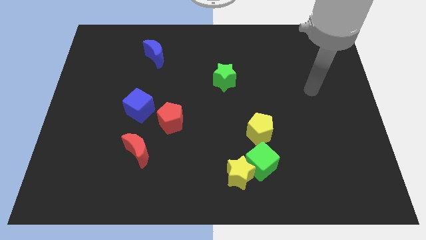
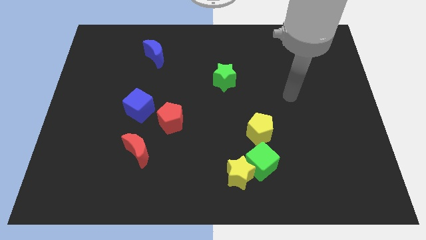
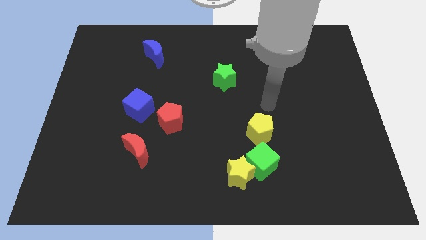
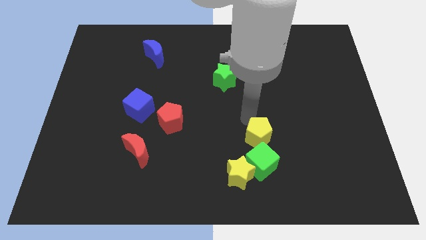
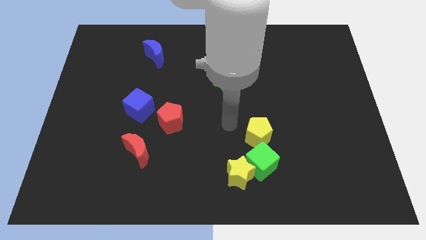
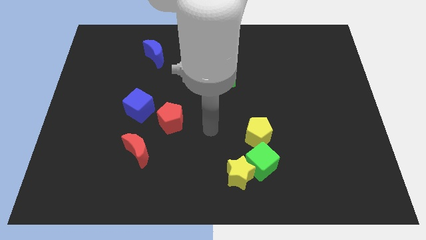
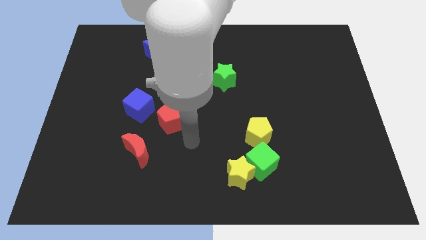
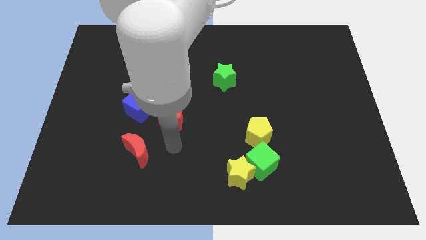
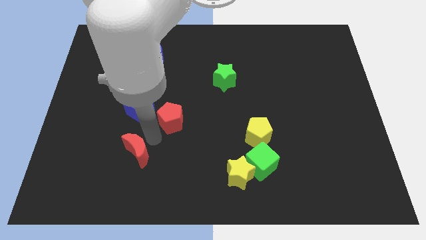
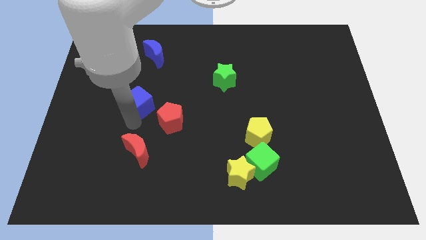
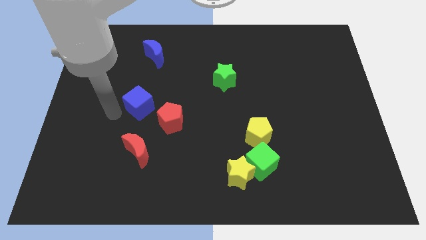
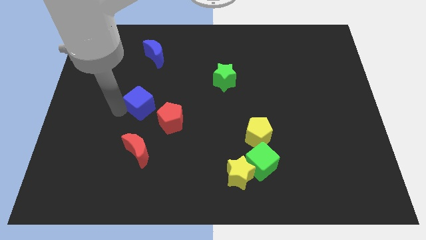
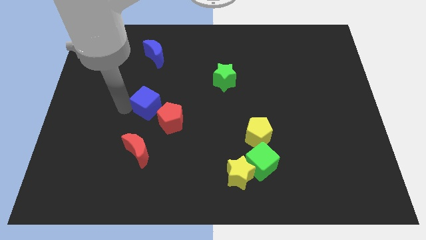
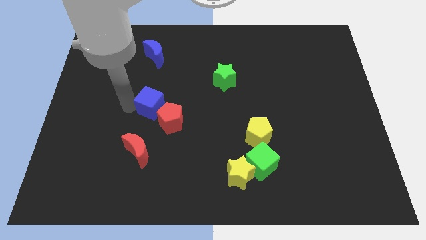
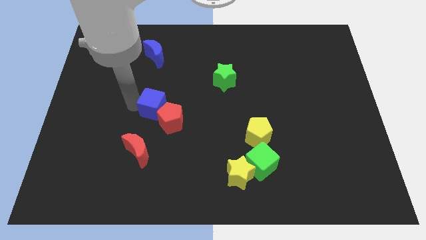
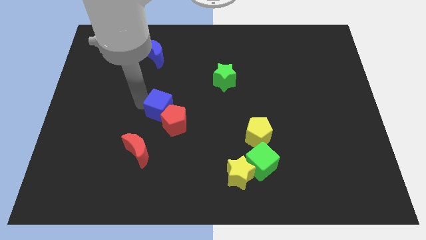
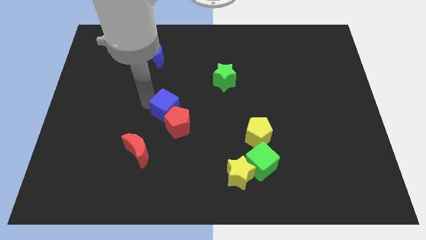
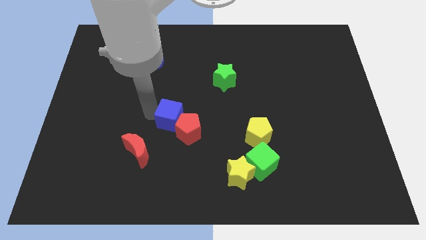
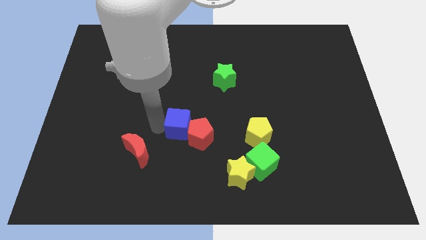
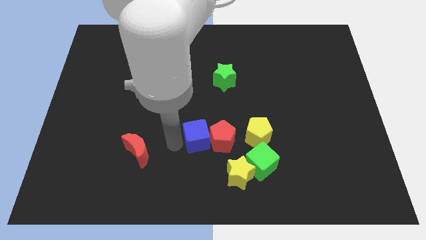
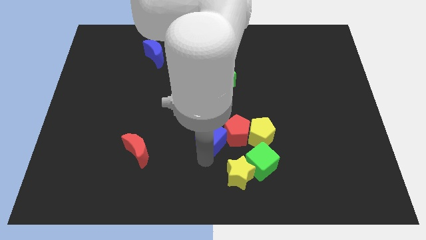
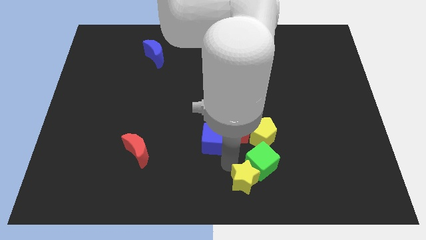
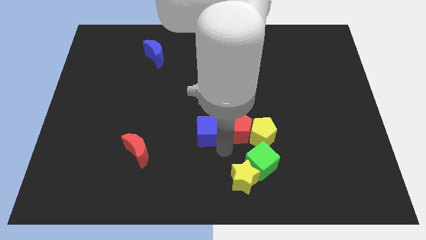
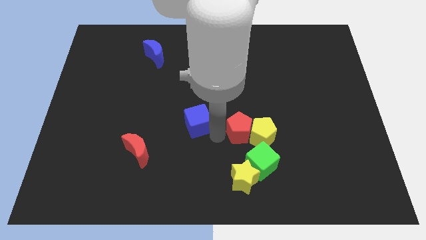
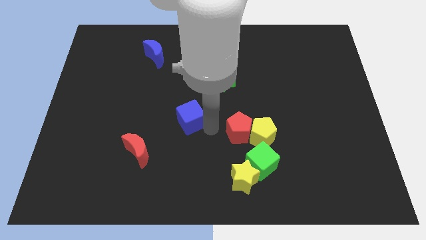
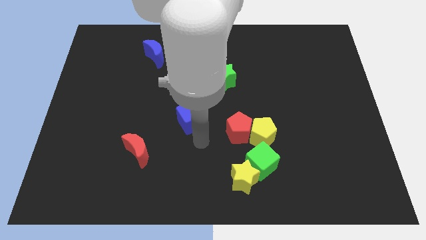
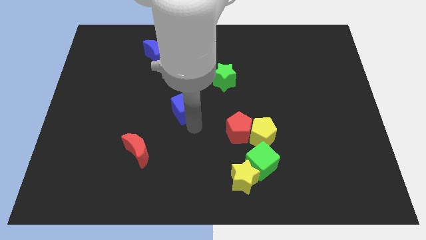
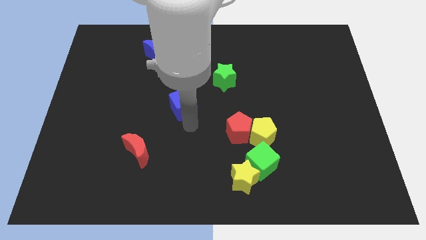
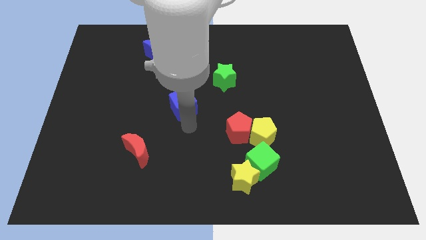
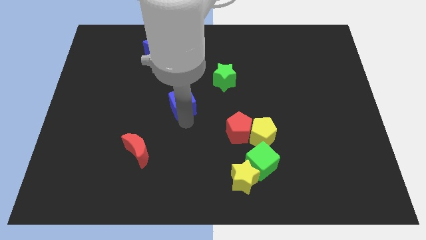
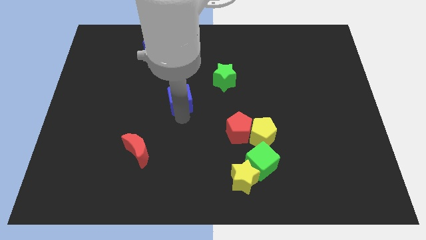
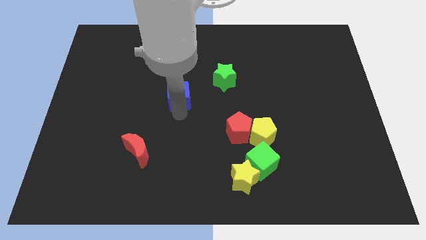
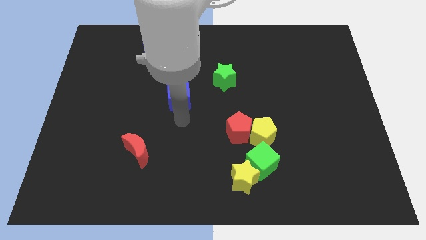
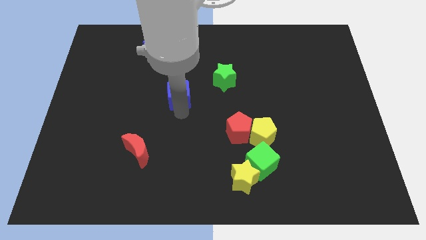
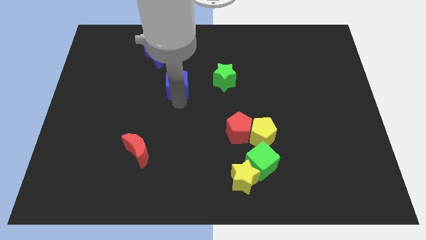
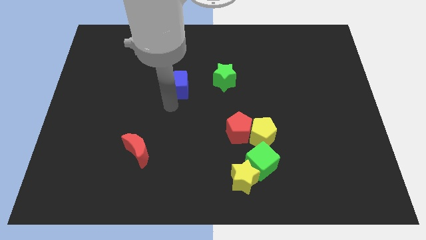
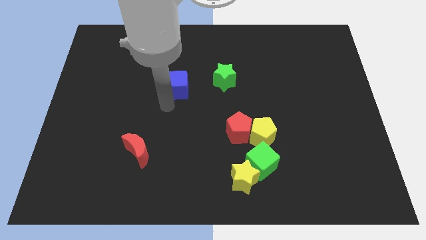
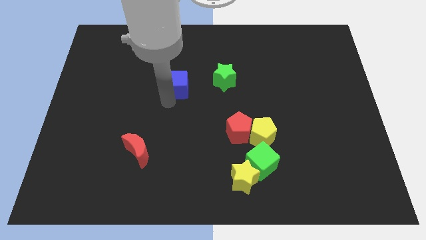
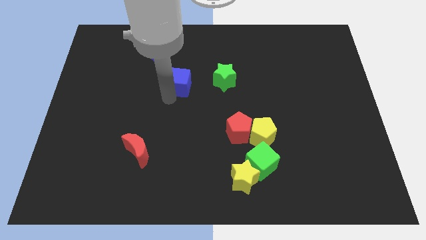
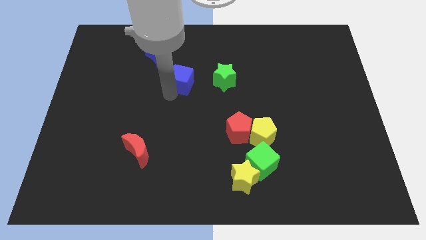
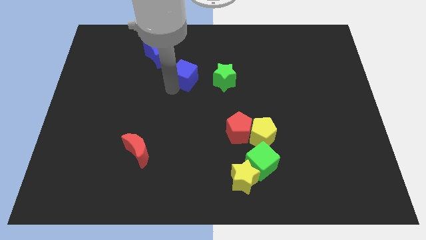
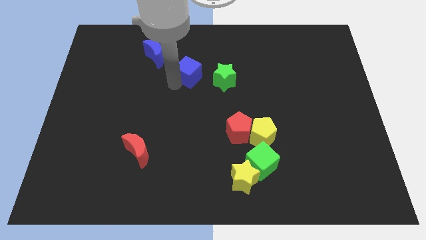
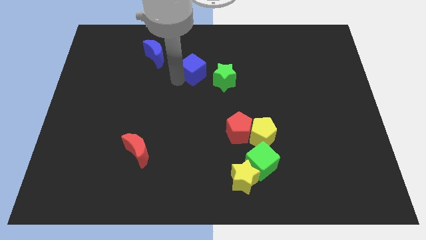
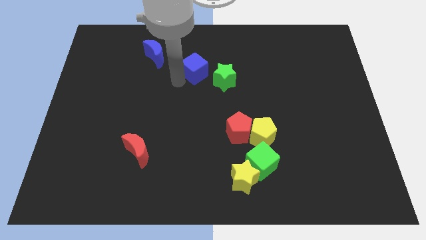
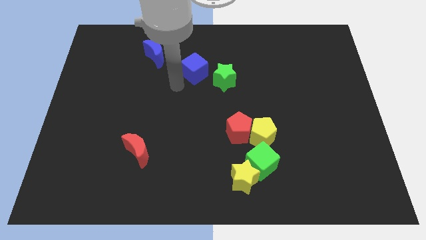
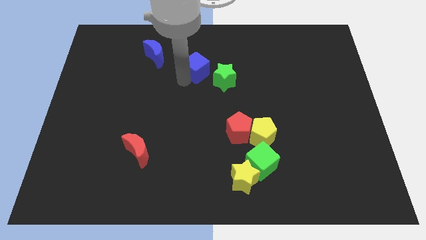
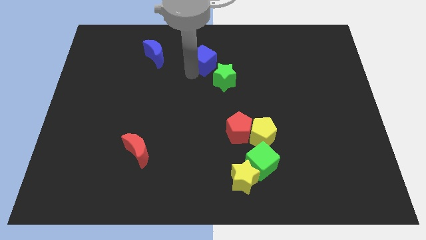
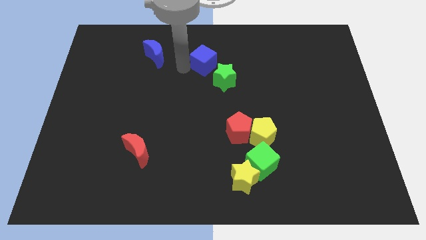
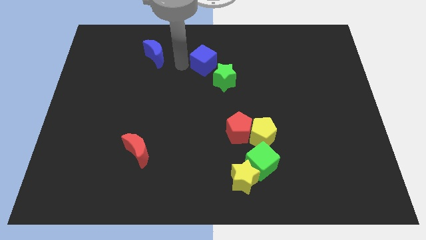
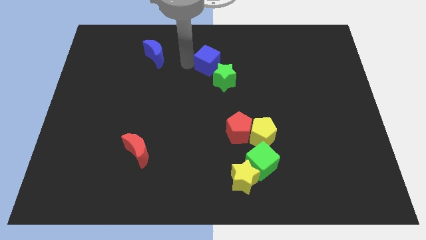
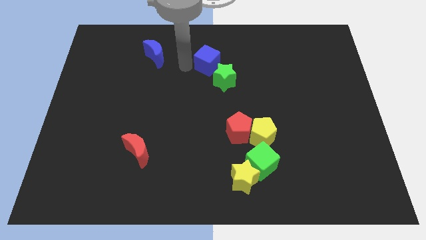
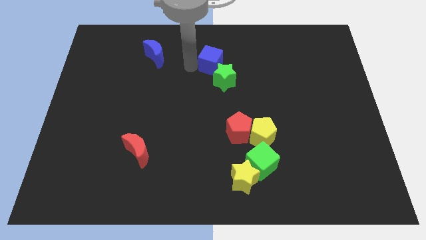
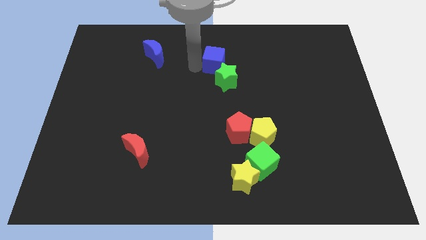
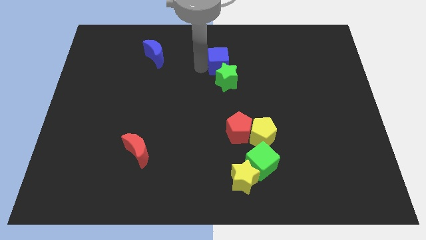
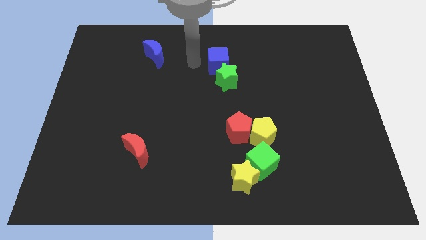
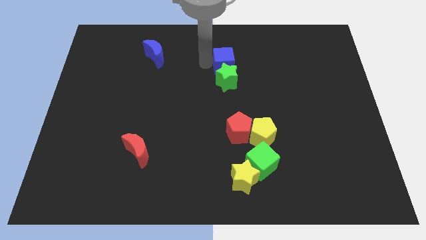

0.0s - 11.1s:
slide the blue cube to the top right of the green star

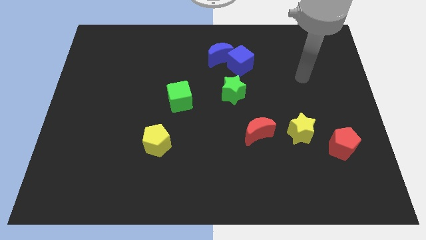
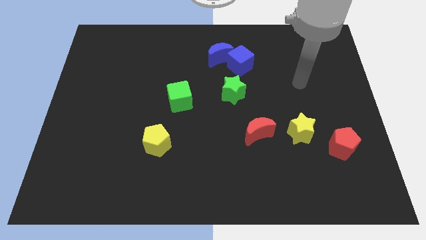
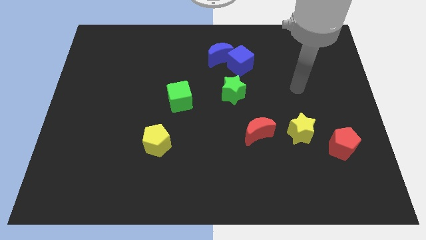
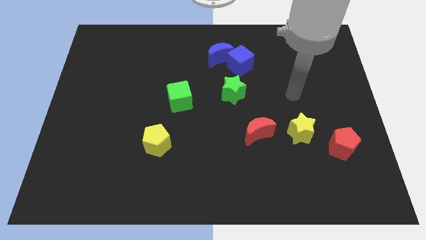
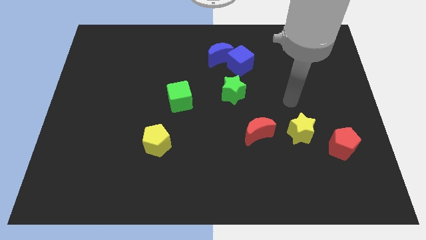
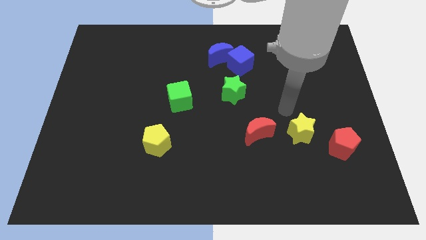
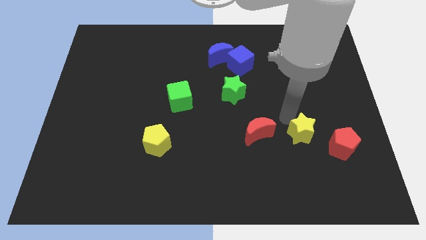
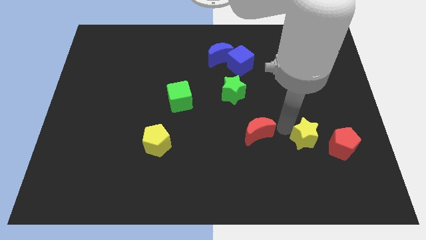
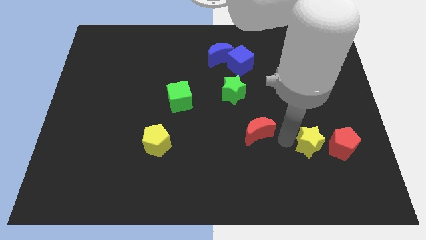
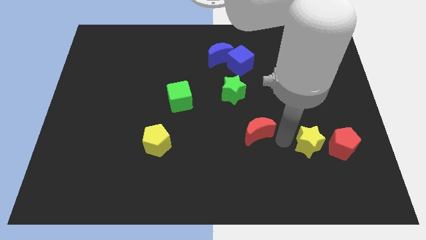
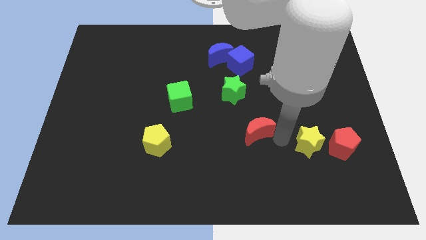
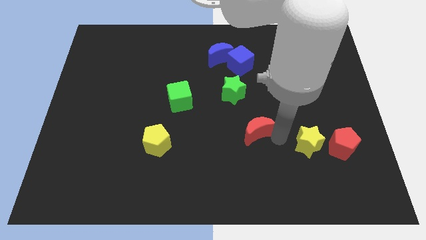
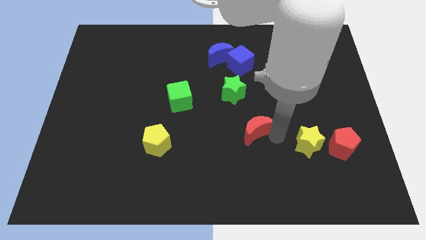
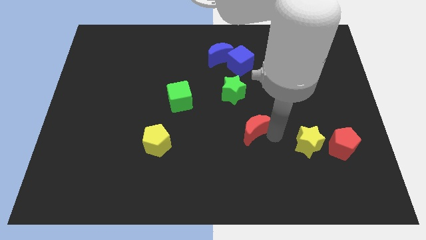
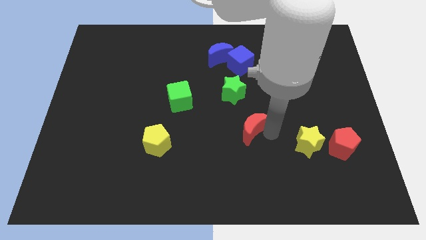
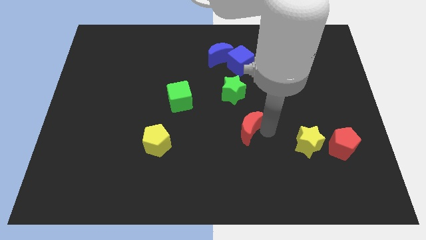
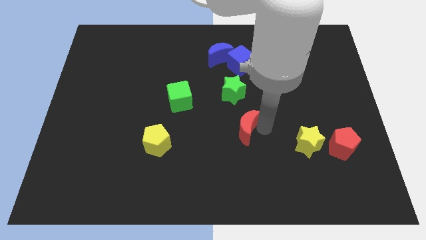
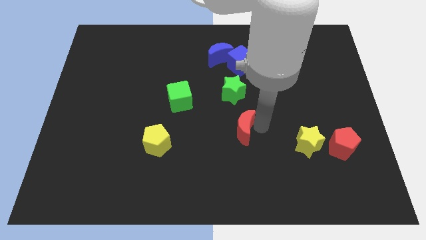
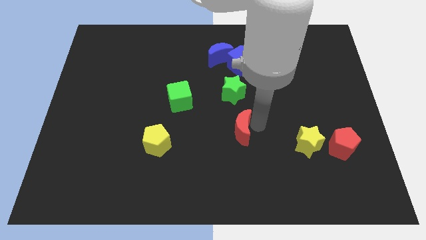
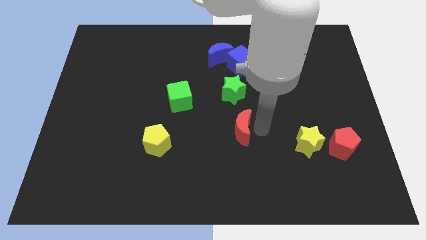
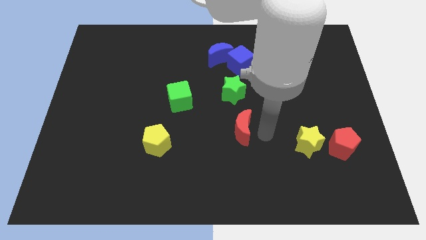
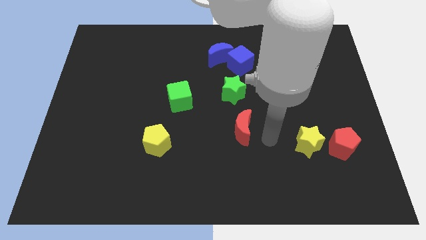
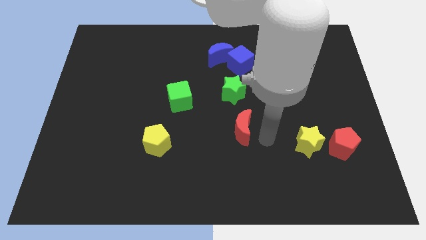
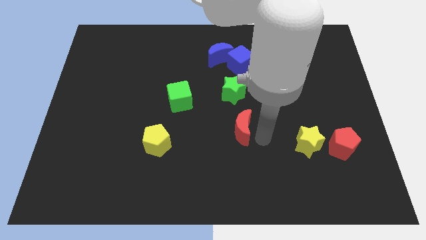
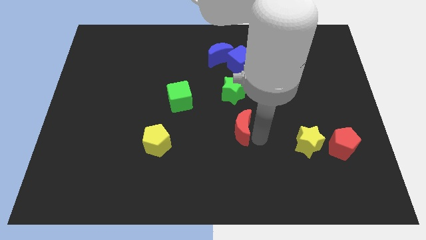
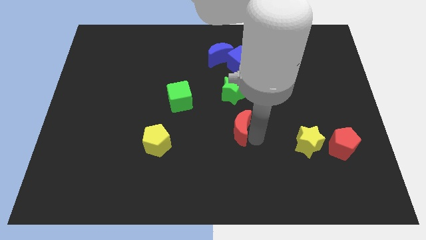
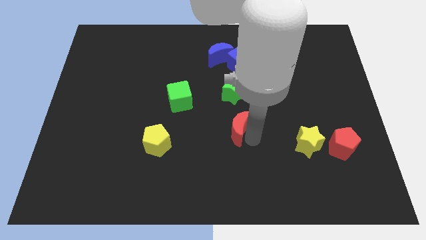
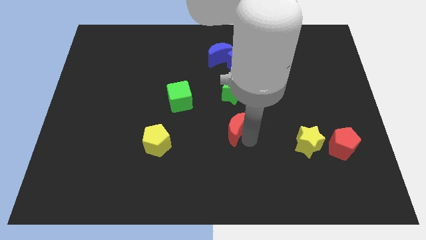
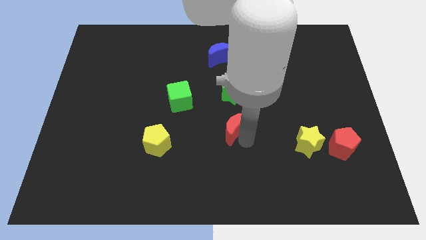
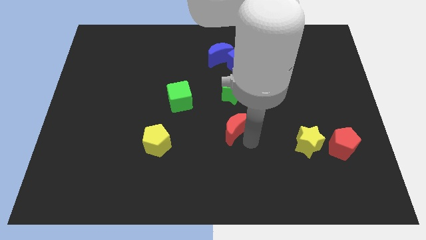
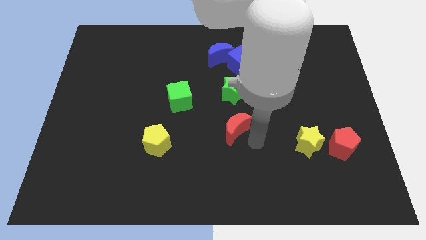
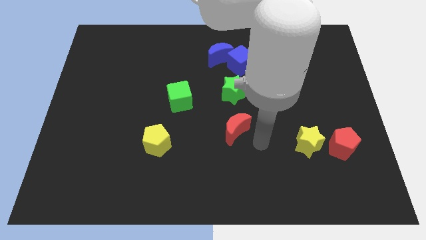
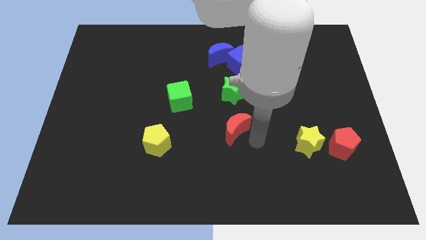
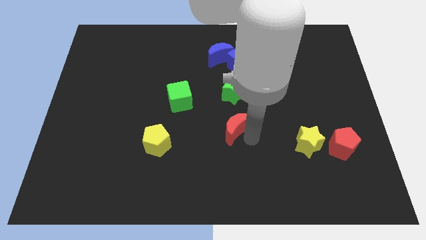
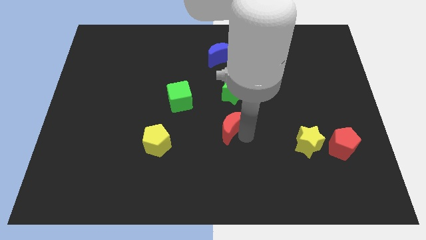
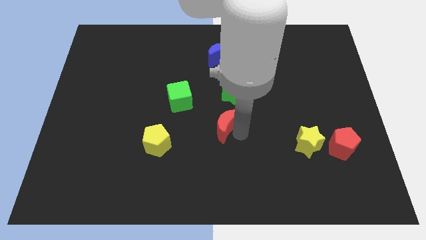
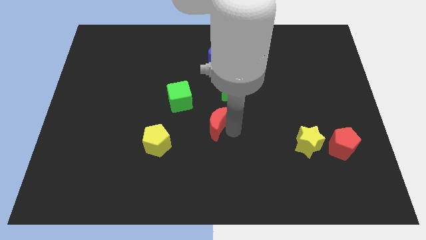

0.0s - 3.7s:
put the red moon to the bottom right side of the green cube
